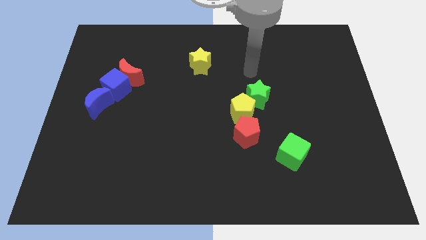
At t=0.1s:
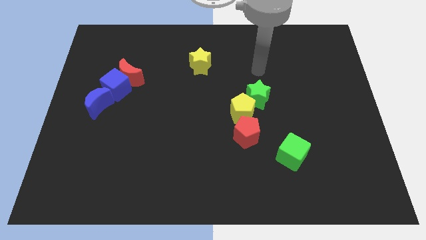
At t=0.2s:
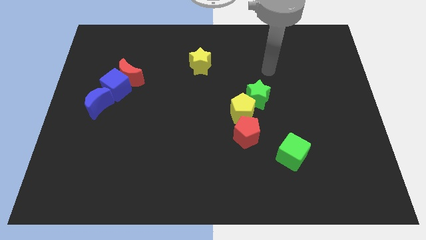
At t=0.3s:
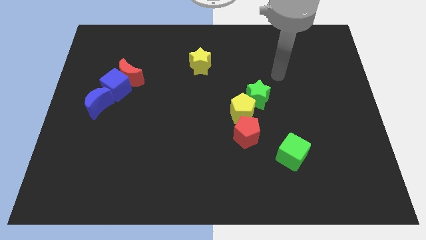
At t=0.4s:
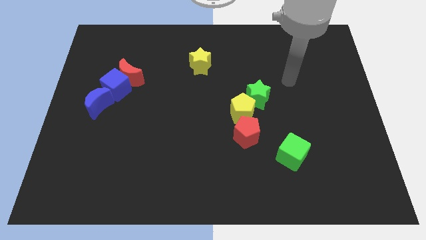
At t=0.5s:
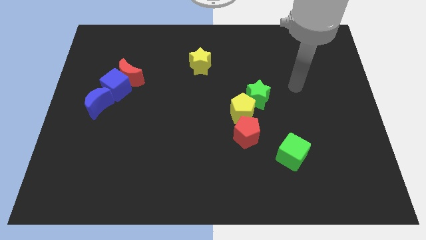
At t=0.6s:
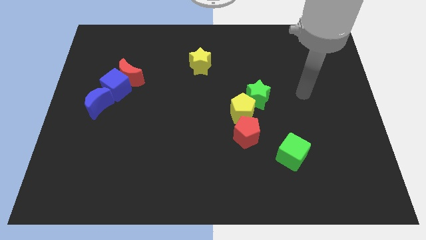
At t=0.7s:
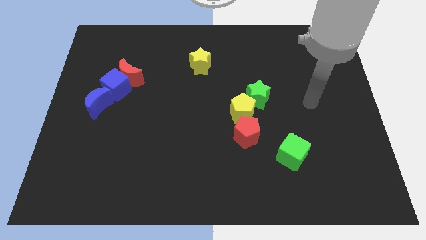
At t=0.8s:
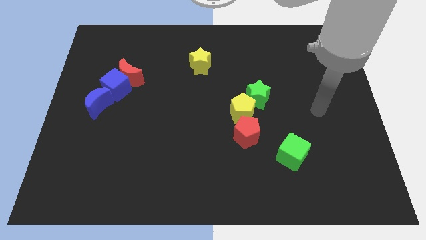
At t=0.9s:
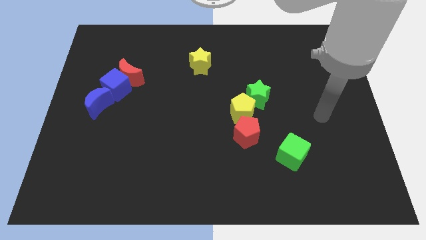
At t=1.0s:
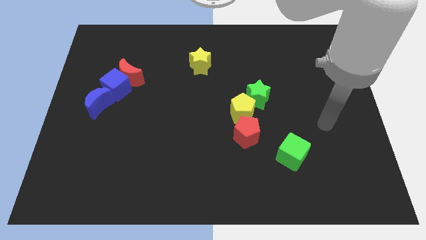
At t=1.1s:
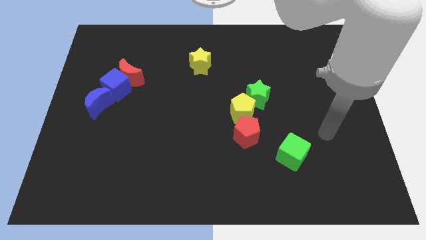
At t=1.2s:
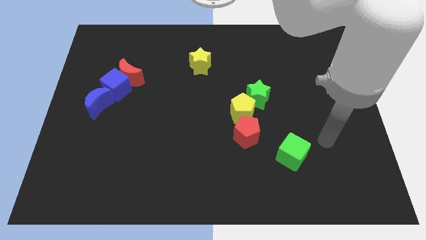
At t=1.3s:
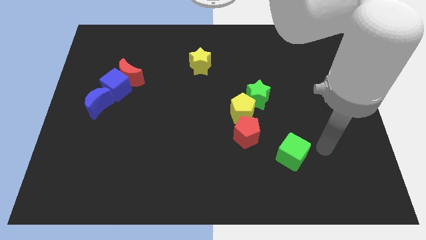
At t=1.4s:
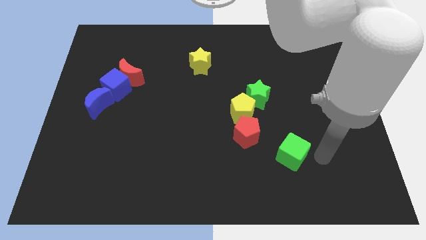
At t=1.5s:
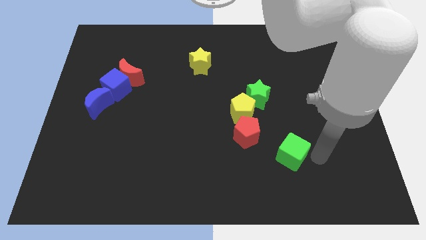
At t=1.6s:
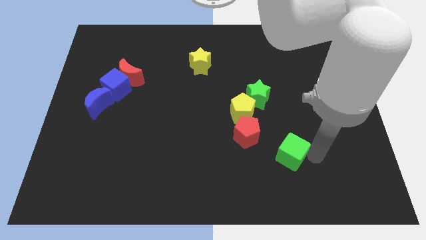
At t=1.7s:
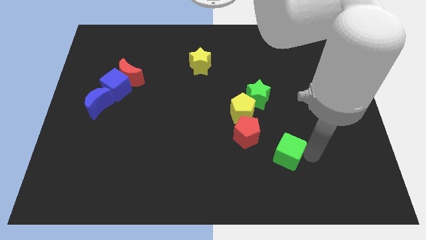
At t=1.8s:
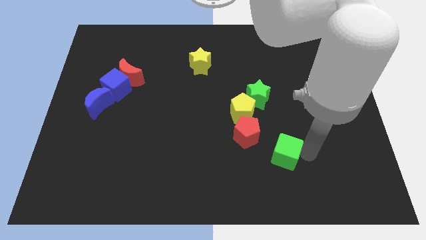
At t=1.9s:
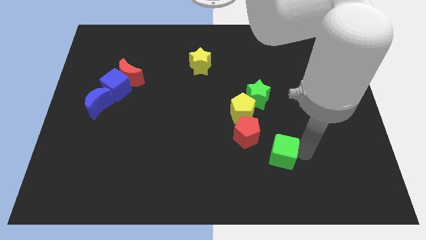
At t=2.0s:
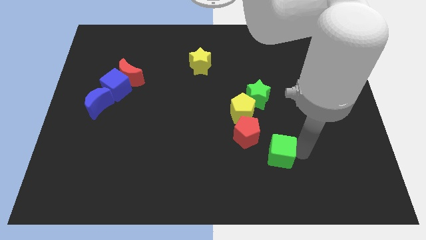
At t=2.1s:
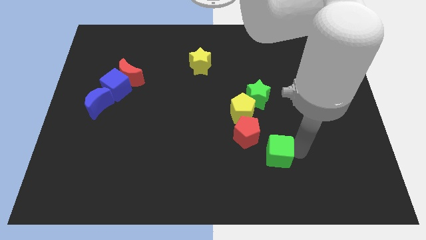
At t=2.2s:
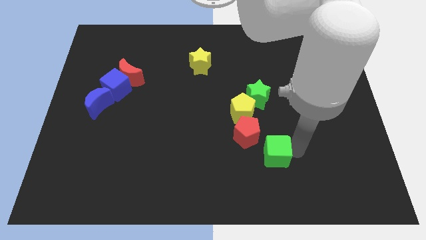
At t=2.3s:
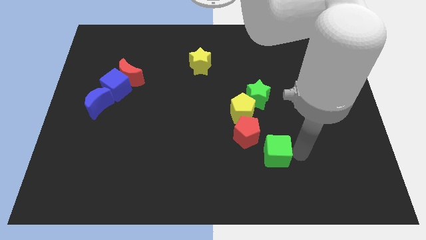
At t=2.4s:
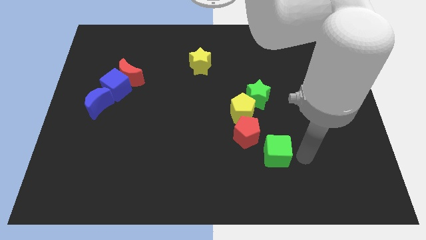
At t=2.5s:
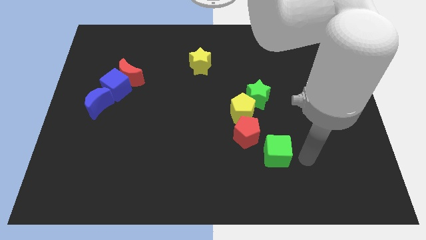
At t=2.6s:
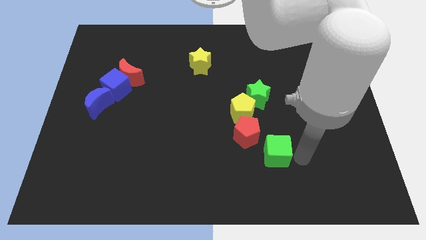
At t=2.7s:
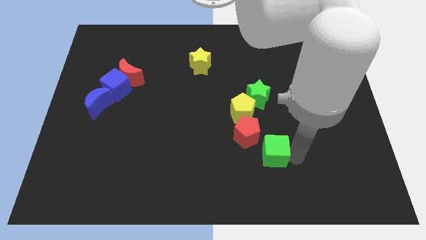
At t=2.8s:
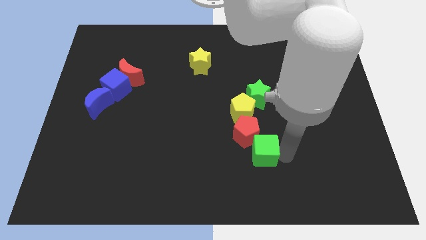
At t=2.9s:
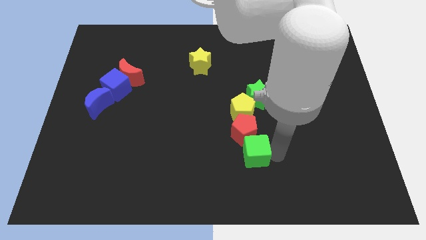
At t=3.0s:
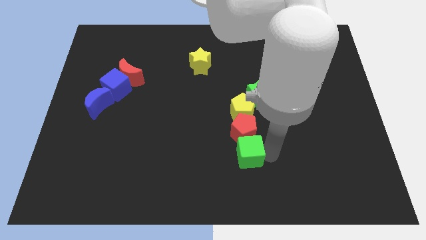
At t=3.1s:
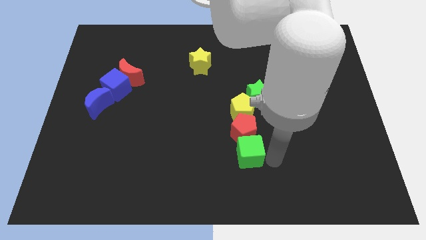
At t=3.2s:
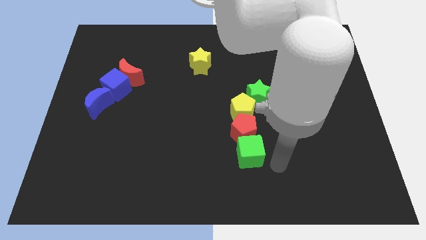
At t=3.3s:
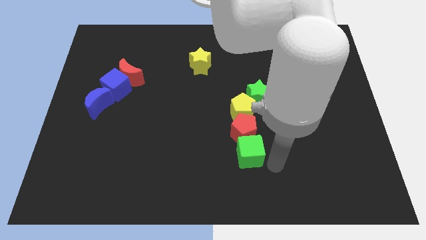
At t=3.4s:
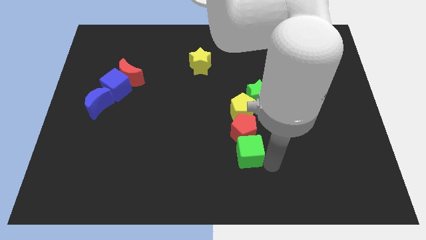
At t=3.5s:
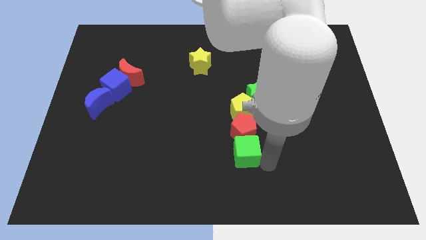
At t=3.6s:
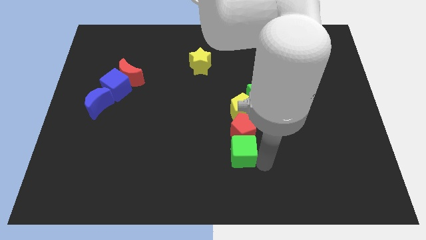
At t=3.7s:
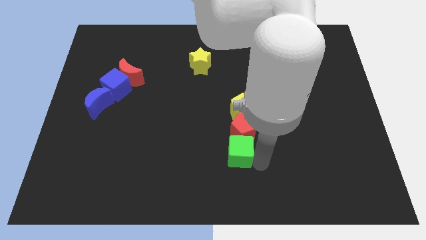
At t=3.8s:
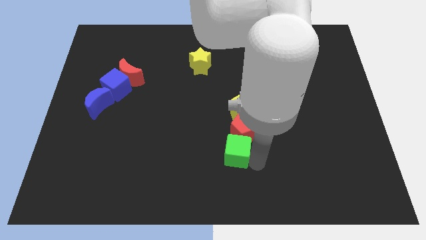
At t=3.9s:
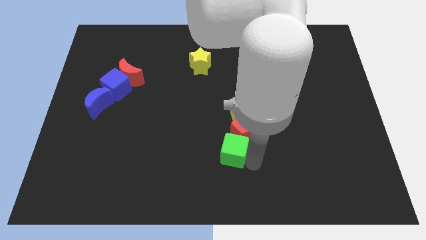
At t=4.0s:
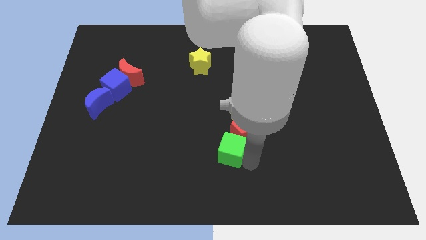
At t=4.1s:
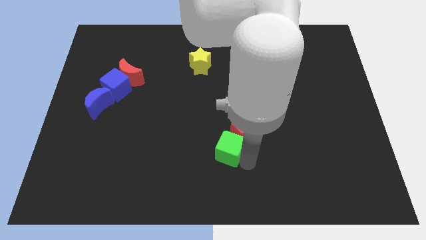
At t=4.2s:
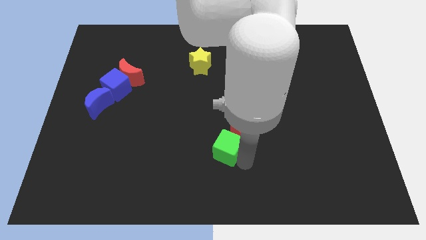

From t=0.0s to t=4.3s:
move the green cube slightly up and to the left diagonally

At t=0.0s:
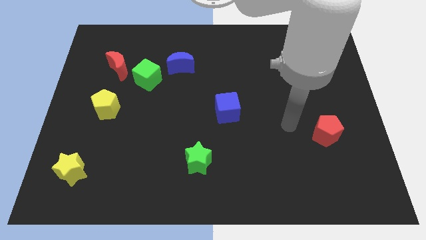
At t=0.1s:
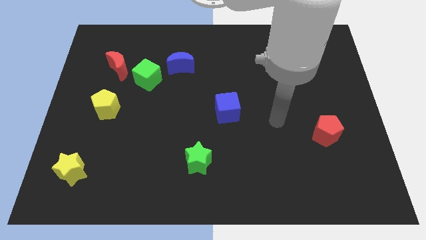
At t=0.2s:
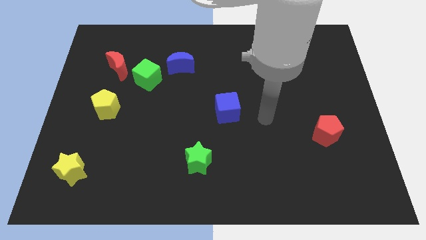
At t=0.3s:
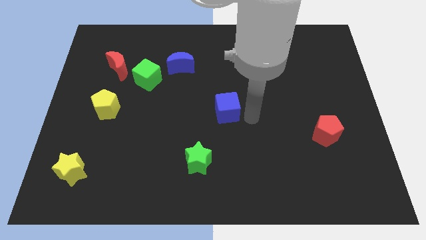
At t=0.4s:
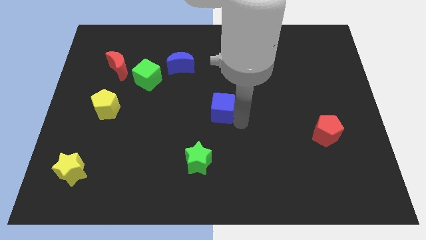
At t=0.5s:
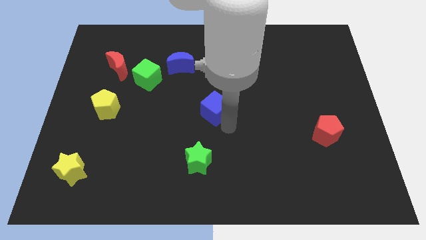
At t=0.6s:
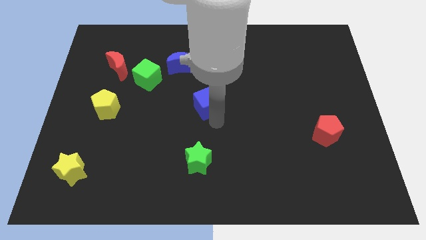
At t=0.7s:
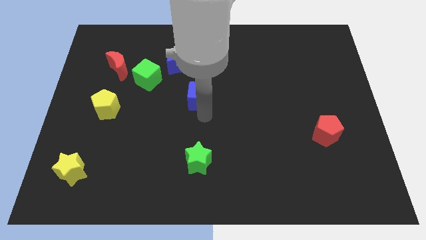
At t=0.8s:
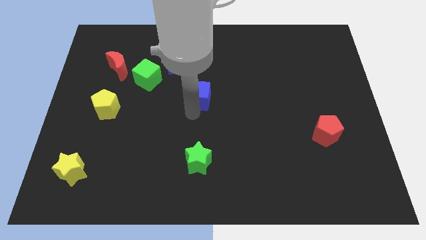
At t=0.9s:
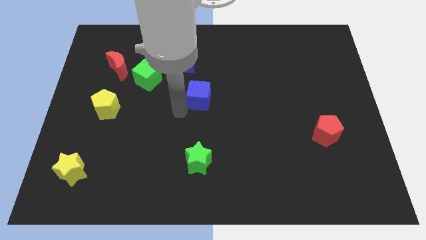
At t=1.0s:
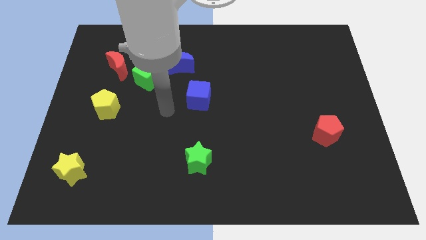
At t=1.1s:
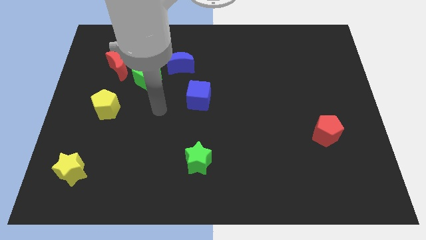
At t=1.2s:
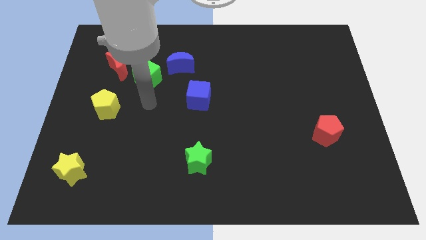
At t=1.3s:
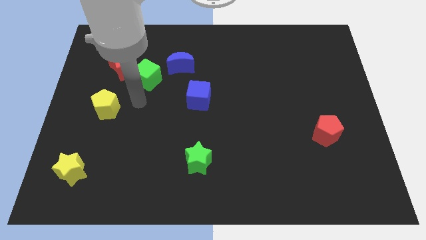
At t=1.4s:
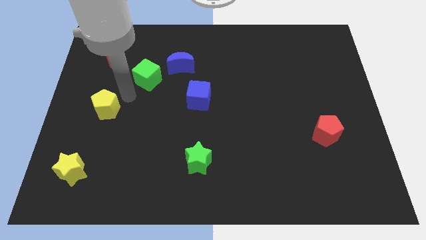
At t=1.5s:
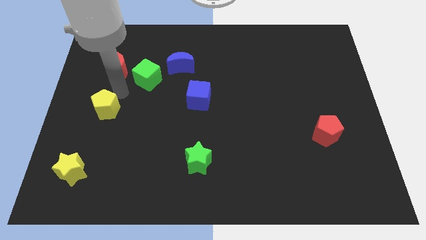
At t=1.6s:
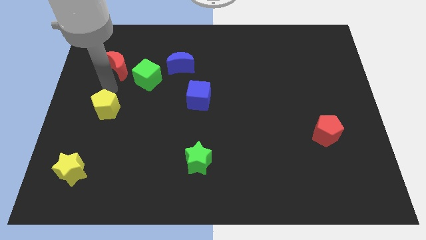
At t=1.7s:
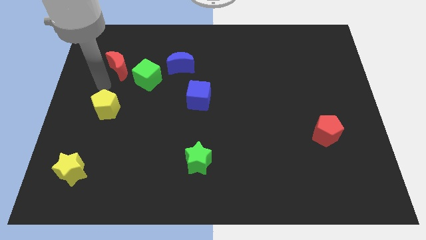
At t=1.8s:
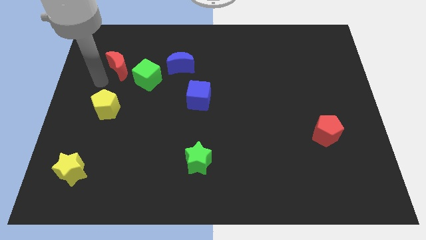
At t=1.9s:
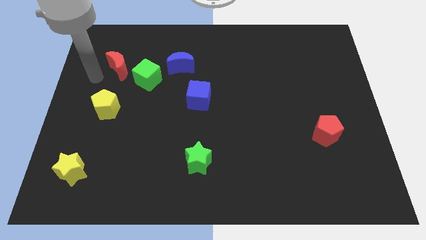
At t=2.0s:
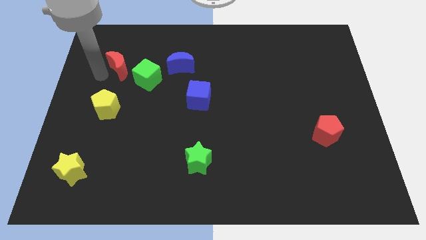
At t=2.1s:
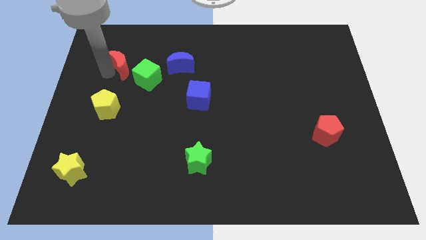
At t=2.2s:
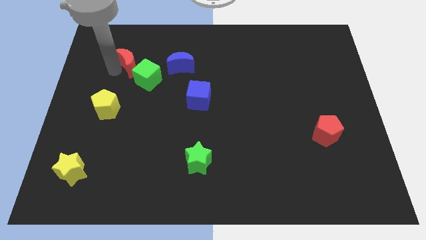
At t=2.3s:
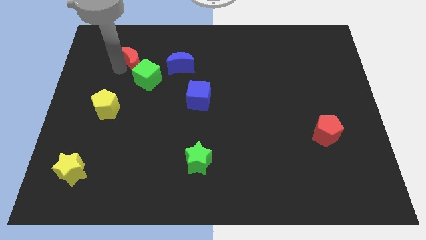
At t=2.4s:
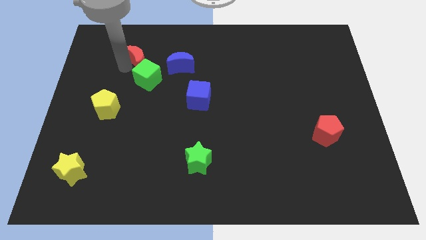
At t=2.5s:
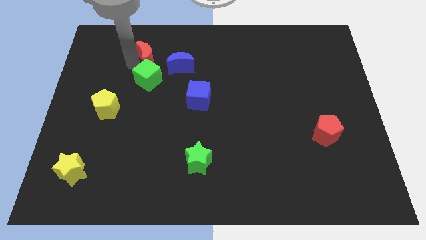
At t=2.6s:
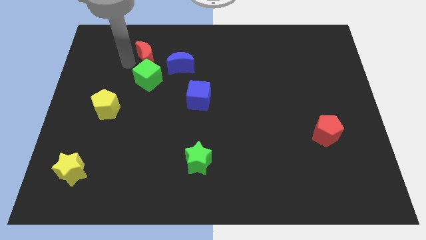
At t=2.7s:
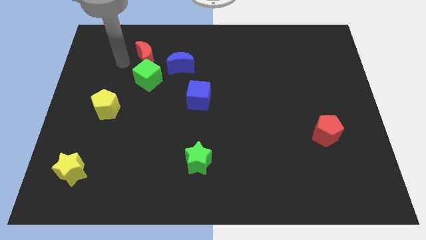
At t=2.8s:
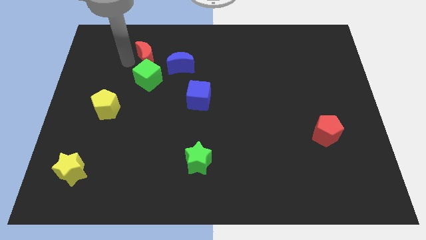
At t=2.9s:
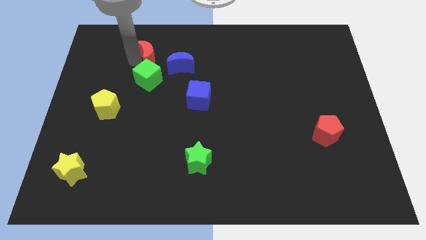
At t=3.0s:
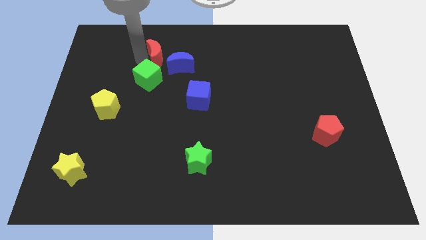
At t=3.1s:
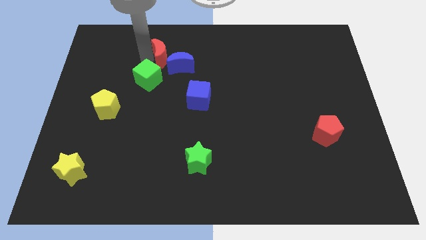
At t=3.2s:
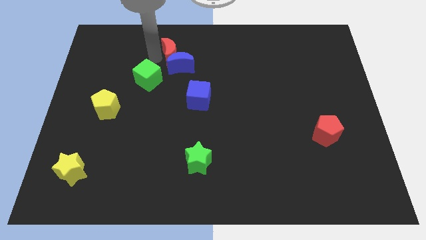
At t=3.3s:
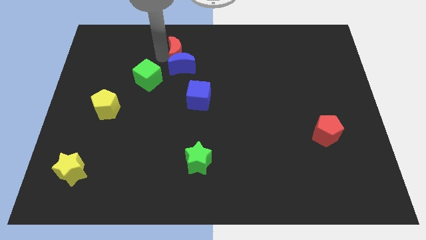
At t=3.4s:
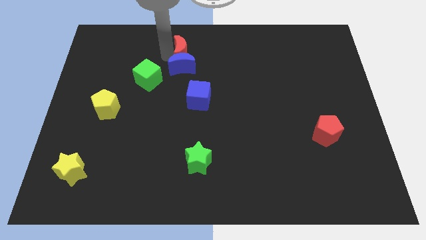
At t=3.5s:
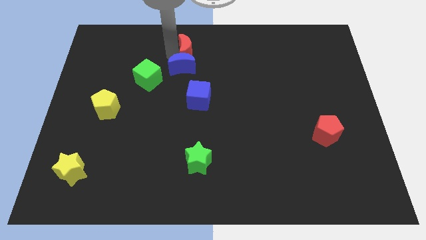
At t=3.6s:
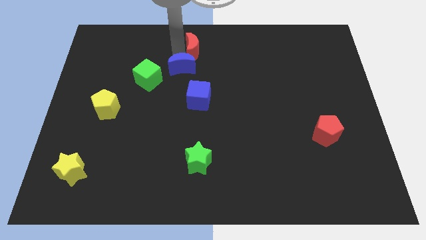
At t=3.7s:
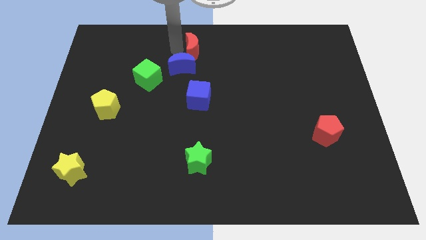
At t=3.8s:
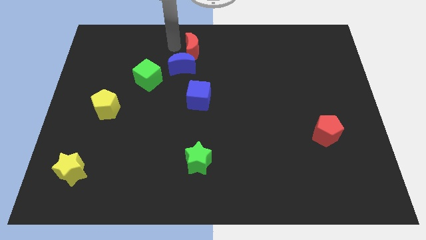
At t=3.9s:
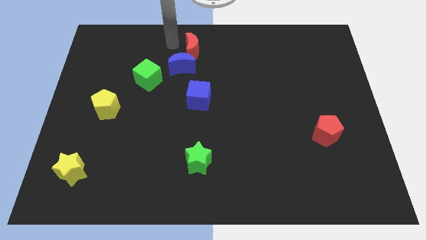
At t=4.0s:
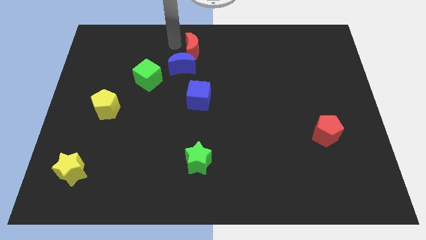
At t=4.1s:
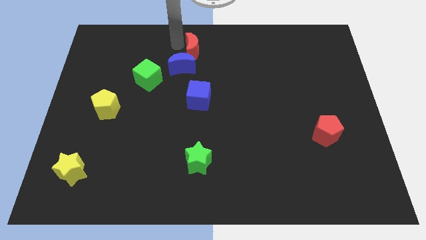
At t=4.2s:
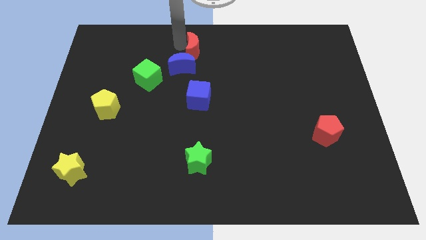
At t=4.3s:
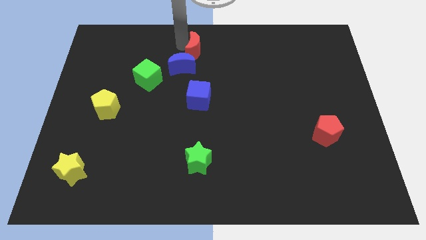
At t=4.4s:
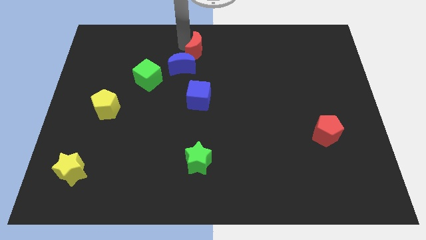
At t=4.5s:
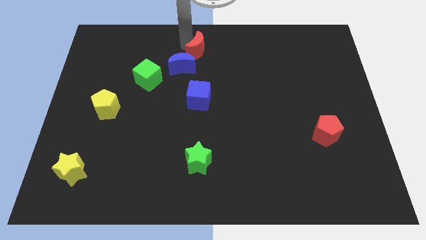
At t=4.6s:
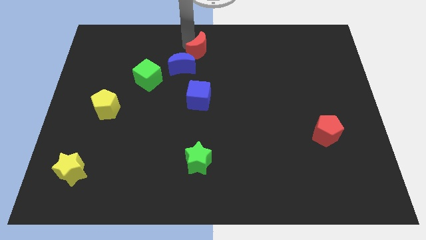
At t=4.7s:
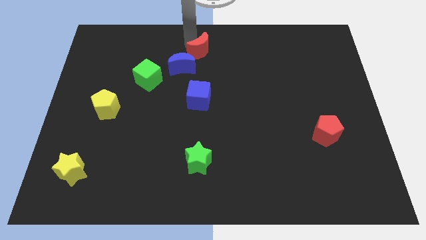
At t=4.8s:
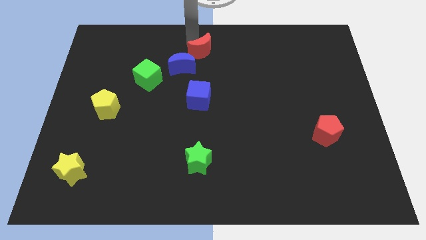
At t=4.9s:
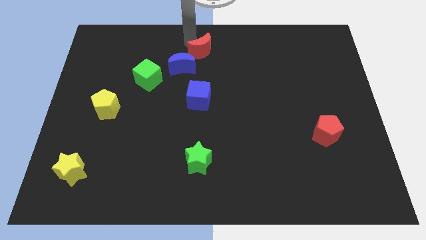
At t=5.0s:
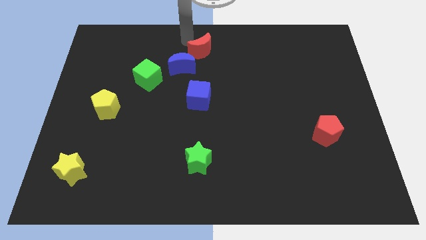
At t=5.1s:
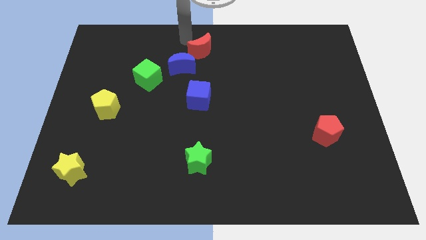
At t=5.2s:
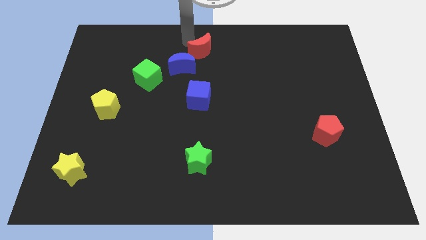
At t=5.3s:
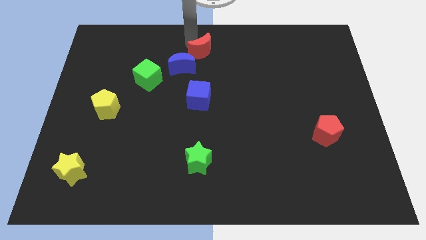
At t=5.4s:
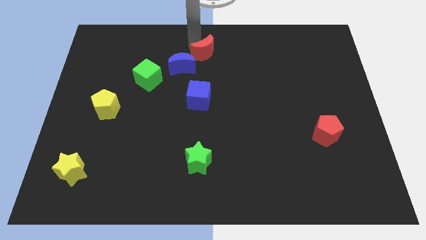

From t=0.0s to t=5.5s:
slide the red moon to the right
